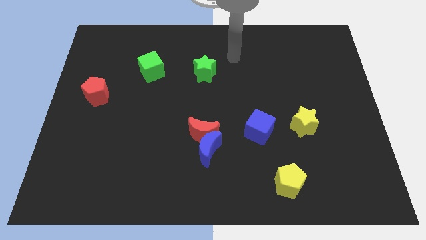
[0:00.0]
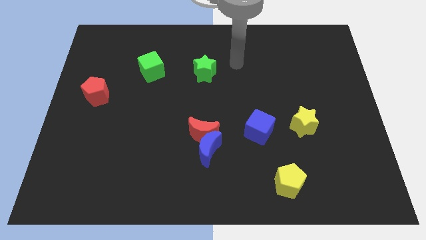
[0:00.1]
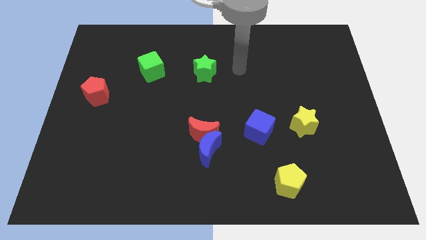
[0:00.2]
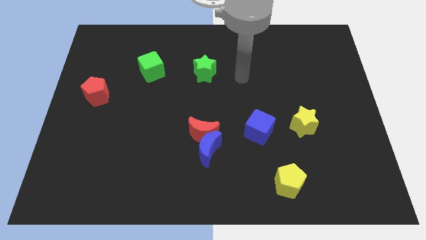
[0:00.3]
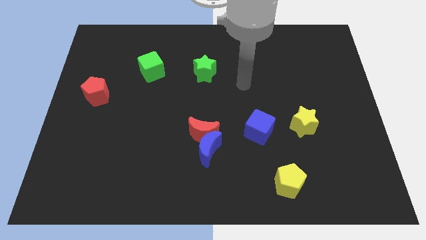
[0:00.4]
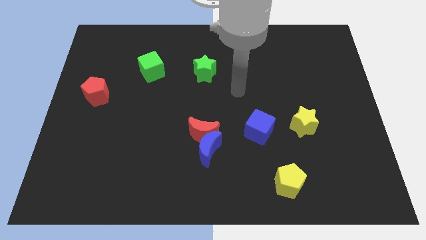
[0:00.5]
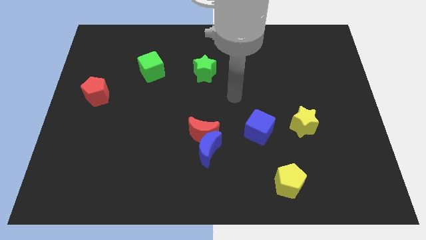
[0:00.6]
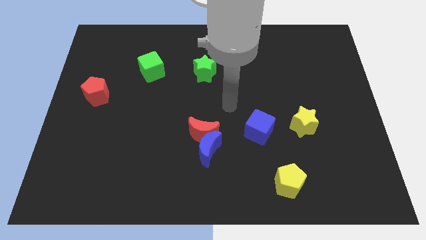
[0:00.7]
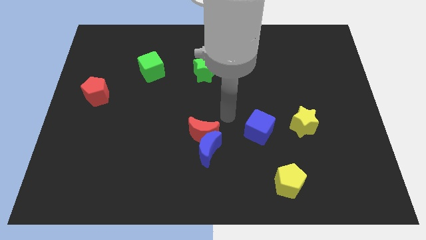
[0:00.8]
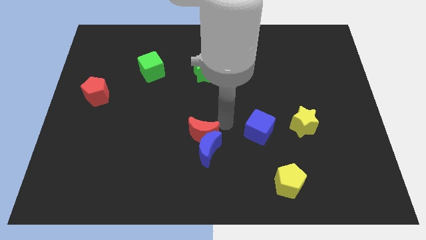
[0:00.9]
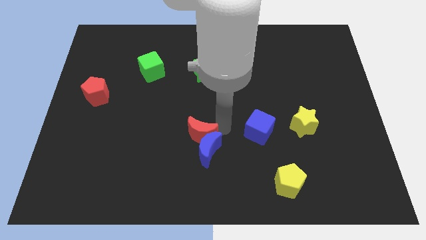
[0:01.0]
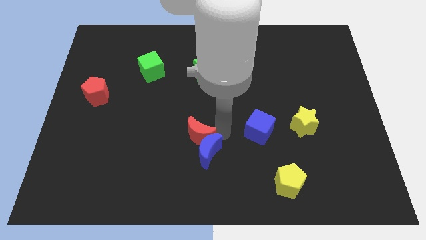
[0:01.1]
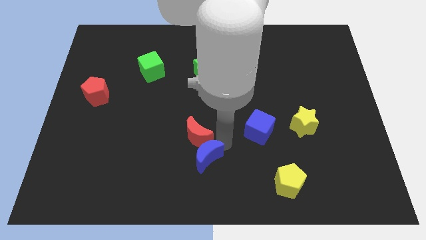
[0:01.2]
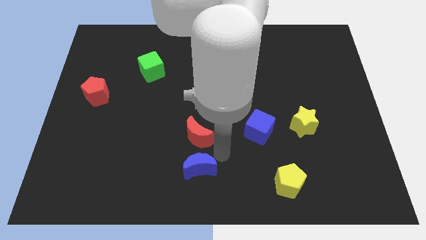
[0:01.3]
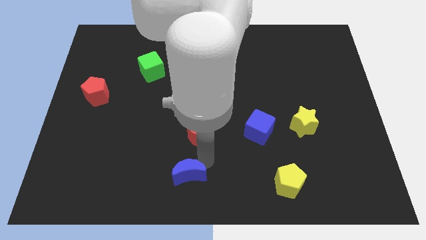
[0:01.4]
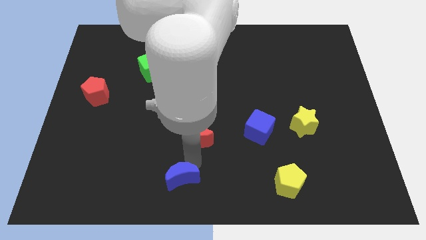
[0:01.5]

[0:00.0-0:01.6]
separate the red moon from the blue moon

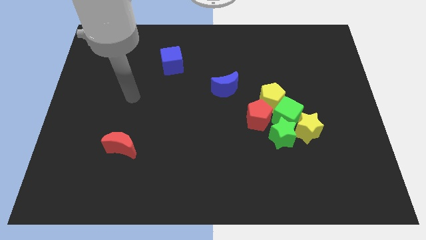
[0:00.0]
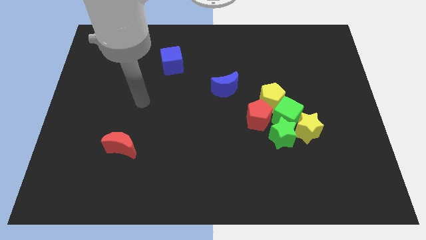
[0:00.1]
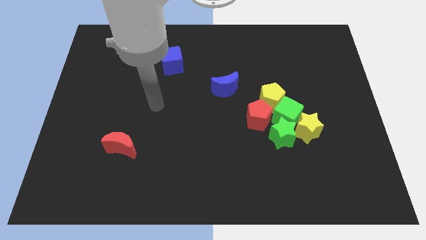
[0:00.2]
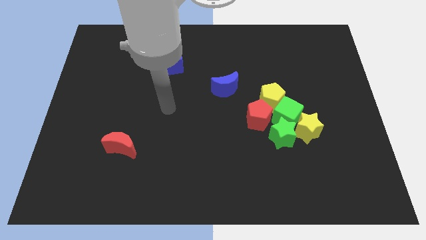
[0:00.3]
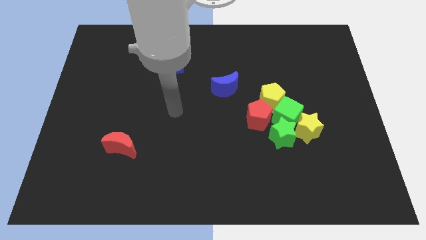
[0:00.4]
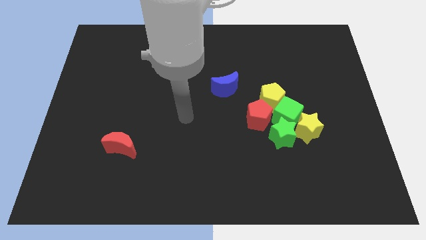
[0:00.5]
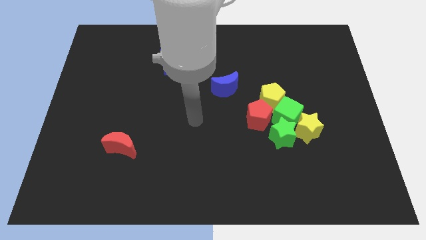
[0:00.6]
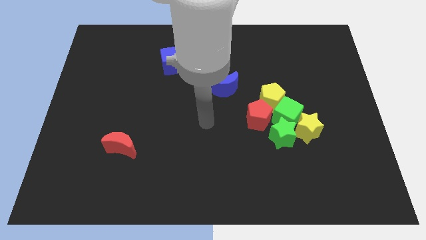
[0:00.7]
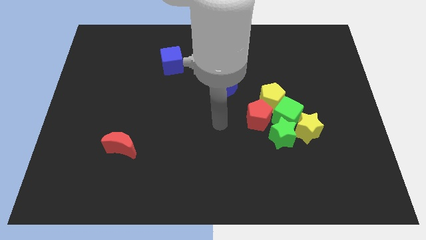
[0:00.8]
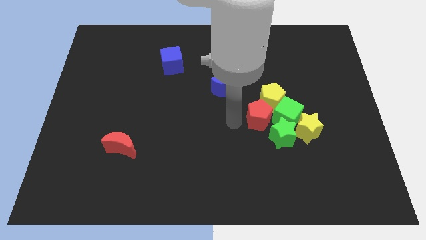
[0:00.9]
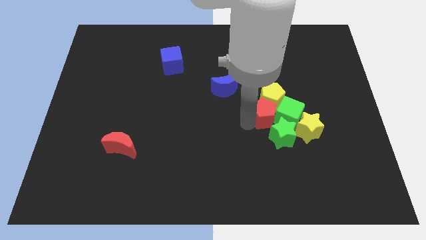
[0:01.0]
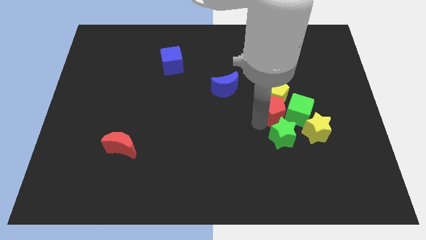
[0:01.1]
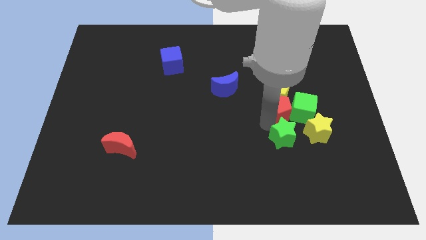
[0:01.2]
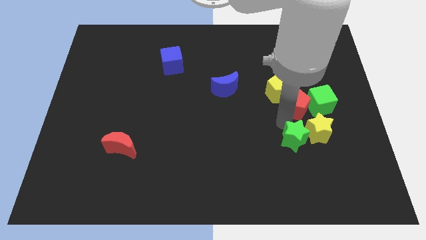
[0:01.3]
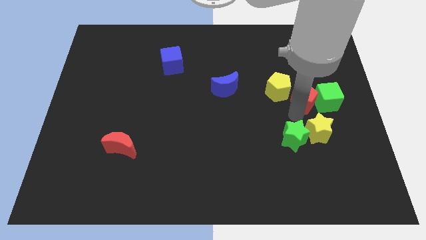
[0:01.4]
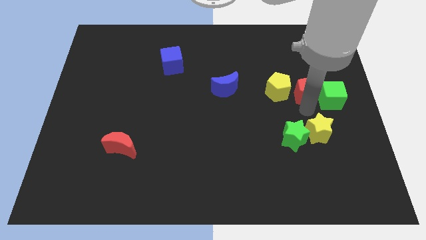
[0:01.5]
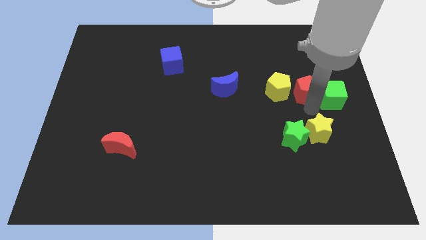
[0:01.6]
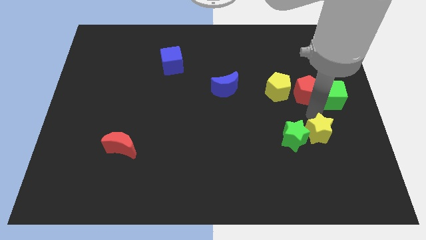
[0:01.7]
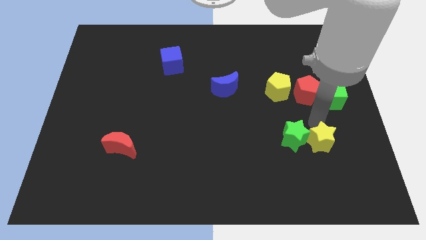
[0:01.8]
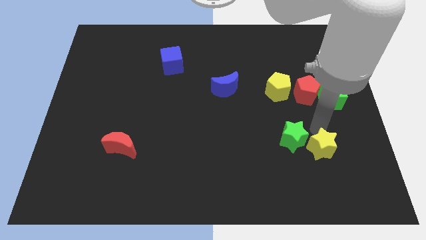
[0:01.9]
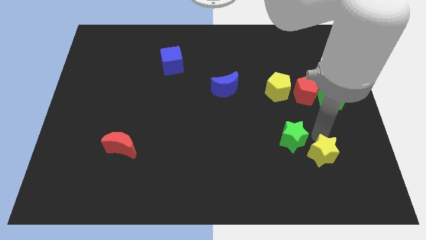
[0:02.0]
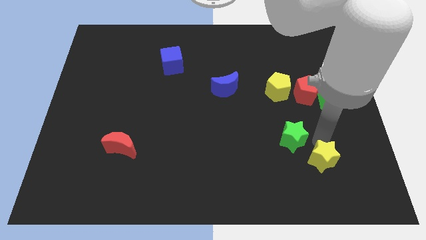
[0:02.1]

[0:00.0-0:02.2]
pull the yellow star apart from the green cube and green star

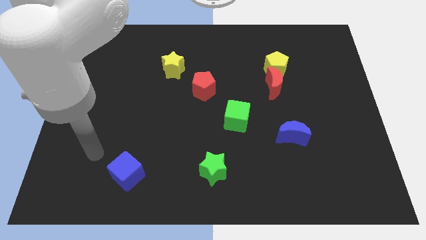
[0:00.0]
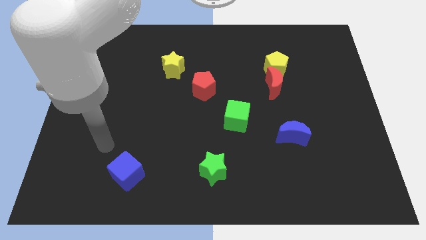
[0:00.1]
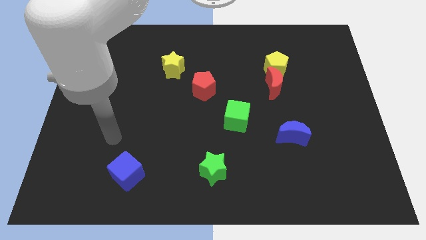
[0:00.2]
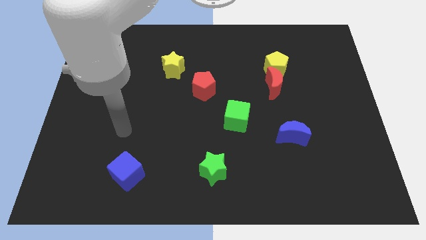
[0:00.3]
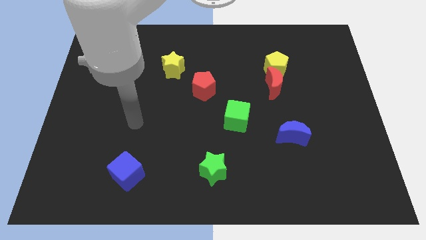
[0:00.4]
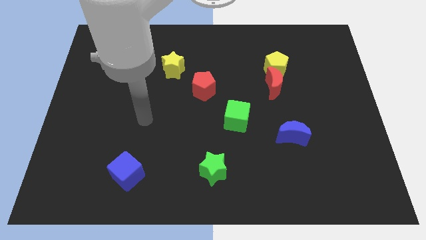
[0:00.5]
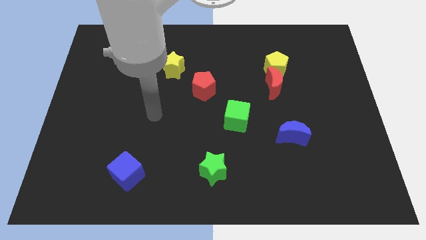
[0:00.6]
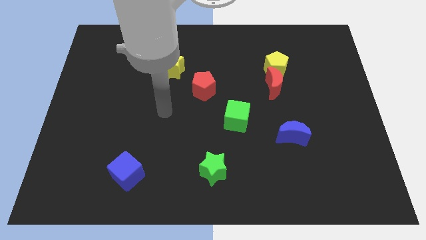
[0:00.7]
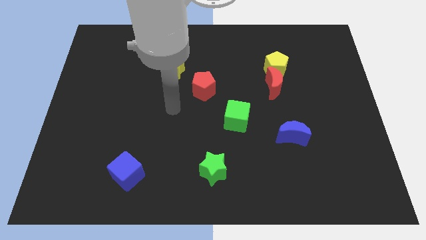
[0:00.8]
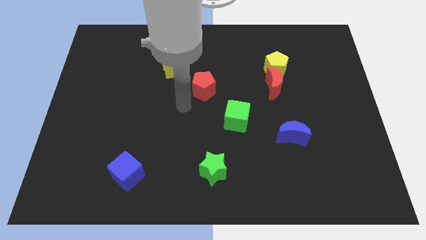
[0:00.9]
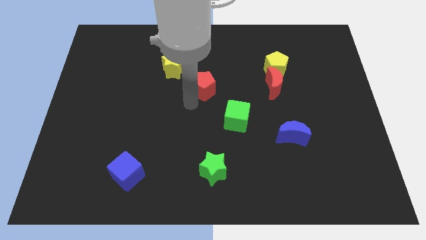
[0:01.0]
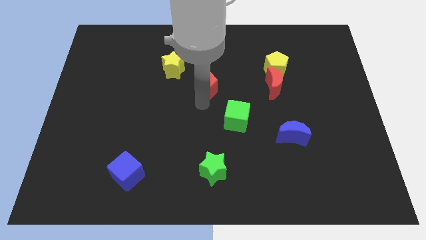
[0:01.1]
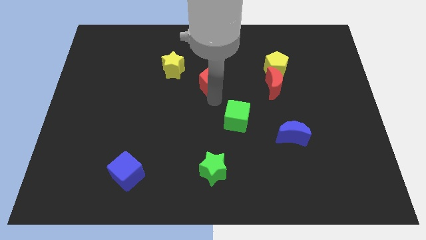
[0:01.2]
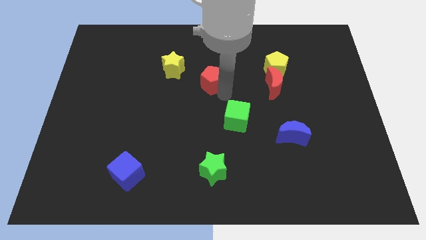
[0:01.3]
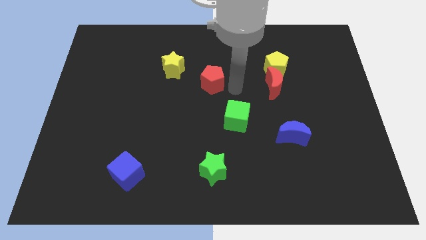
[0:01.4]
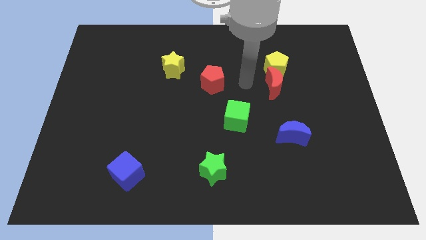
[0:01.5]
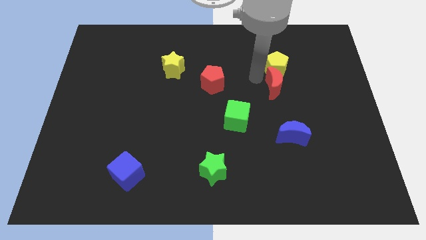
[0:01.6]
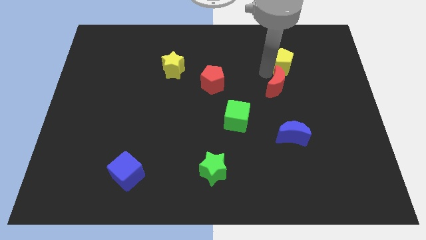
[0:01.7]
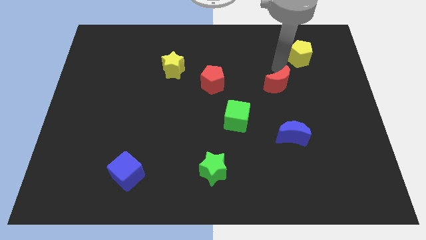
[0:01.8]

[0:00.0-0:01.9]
move the red moon away from the yellow pentagon

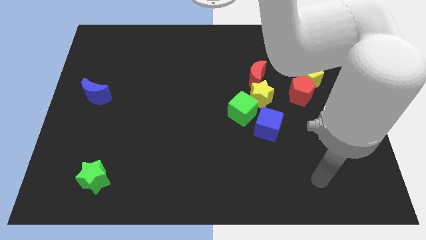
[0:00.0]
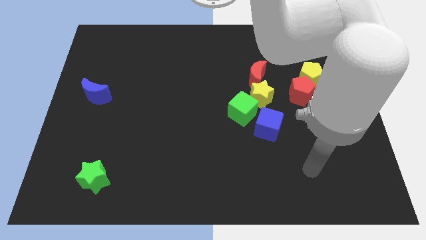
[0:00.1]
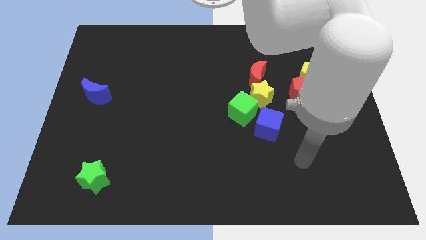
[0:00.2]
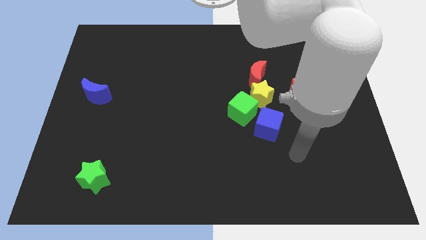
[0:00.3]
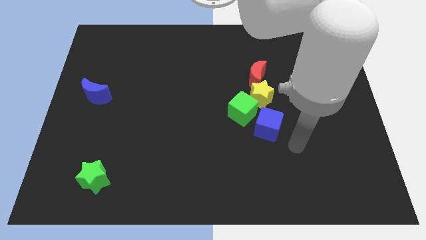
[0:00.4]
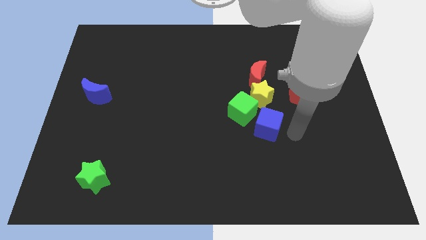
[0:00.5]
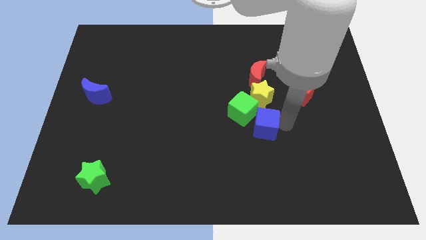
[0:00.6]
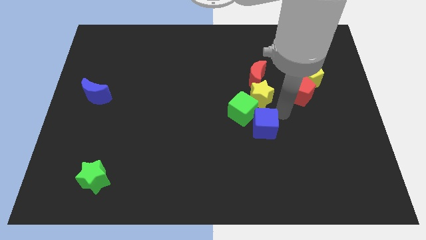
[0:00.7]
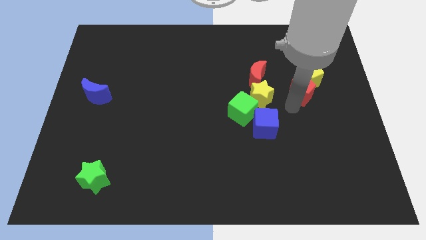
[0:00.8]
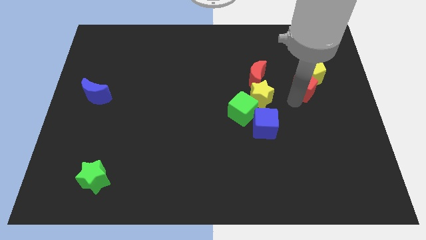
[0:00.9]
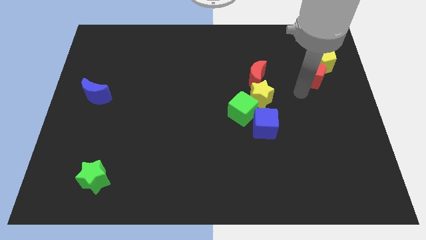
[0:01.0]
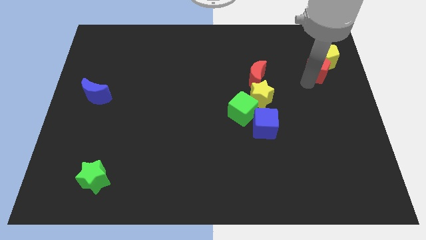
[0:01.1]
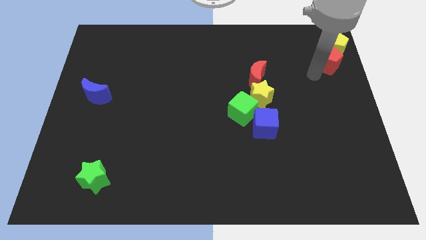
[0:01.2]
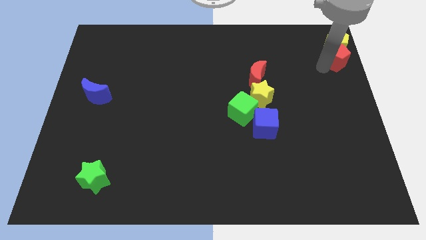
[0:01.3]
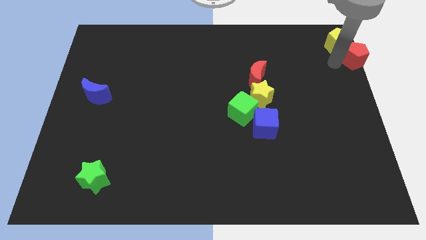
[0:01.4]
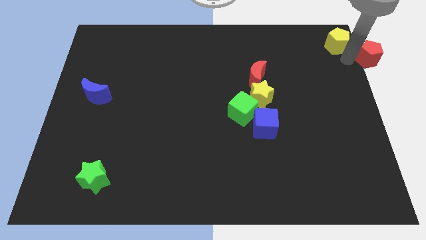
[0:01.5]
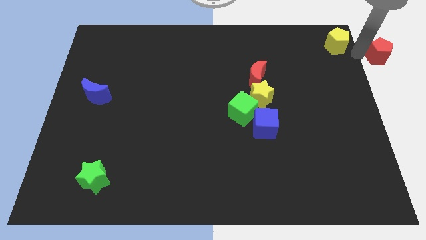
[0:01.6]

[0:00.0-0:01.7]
move the yellow pentagon away from the red pentagon

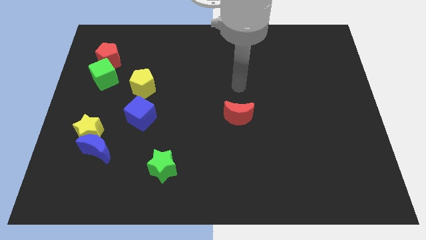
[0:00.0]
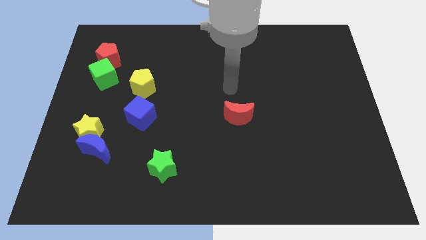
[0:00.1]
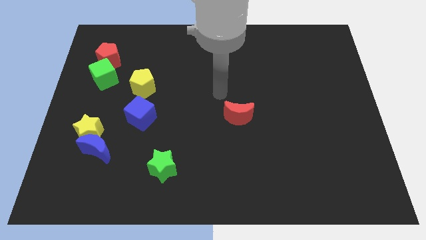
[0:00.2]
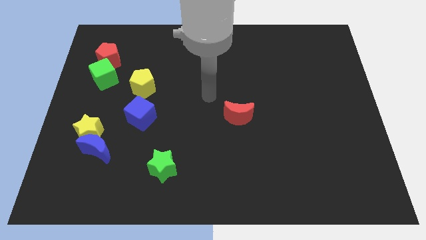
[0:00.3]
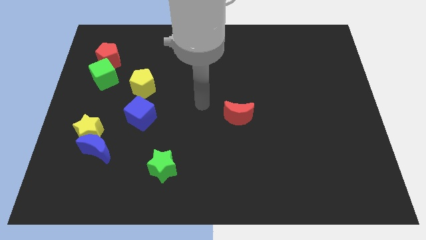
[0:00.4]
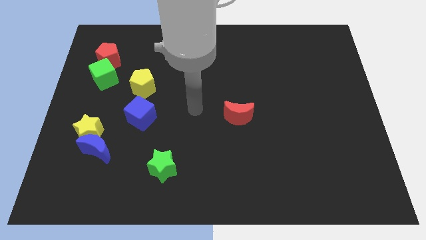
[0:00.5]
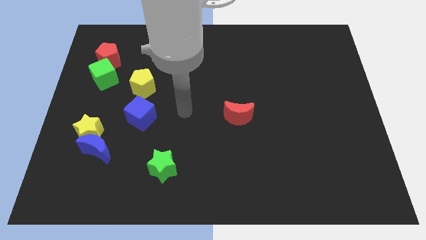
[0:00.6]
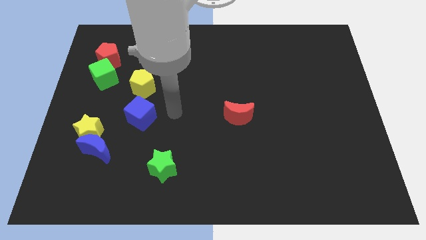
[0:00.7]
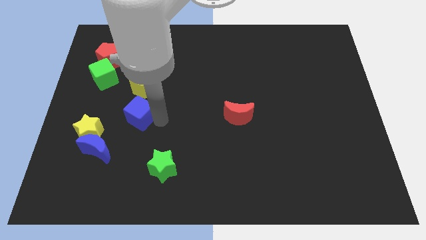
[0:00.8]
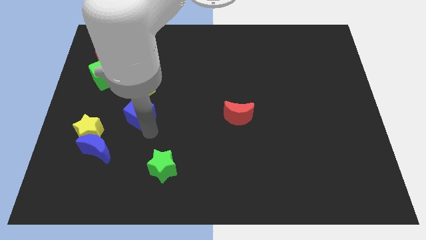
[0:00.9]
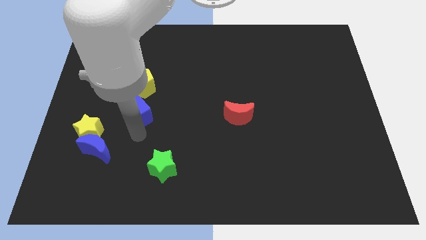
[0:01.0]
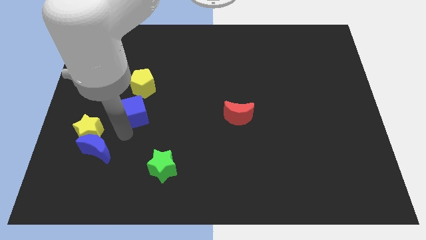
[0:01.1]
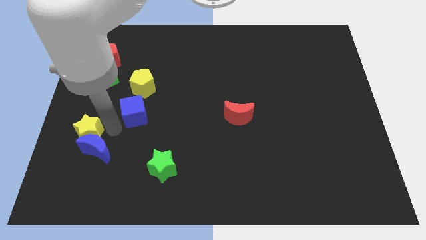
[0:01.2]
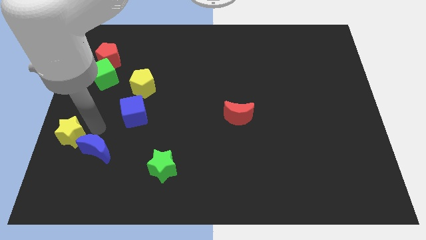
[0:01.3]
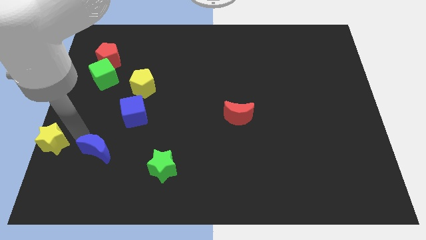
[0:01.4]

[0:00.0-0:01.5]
move the blue moon away from the yellow star

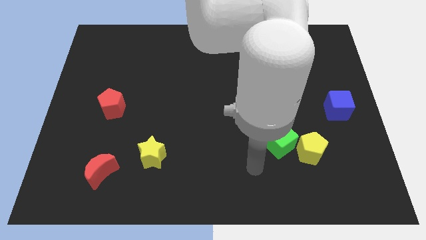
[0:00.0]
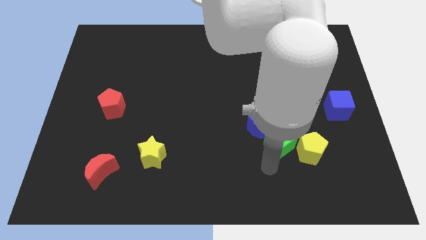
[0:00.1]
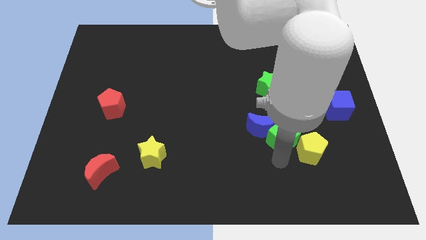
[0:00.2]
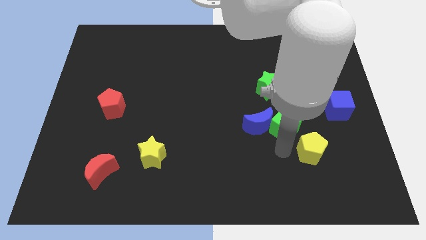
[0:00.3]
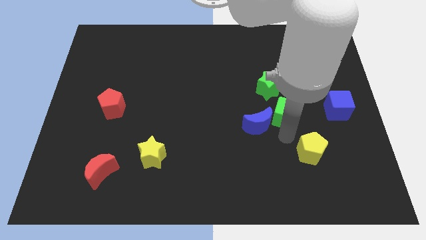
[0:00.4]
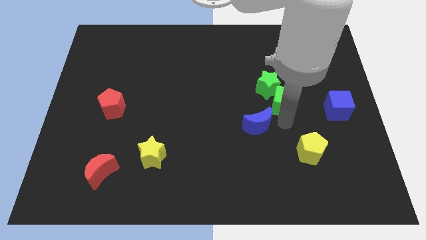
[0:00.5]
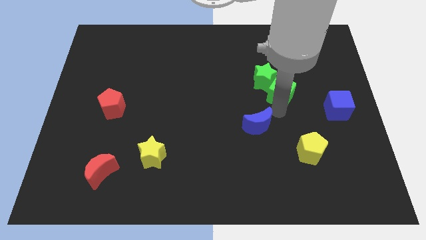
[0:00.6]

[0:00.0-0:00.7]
separate the blue moon from the green cube
